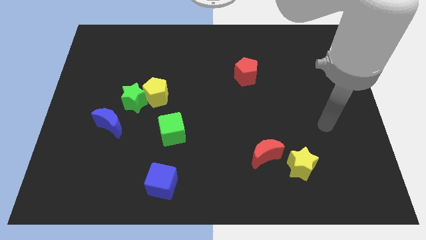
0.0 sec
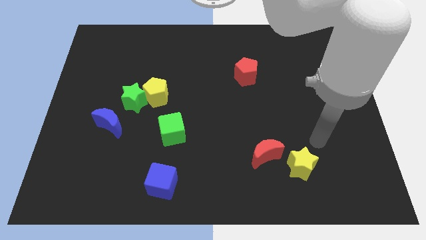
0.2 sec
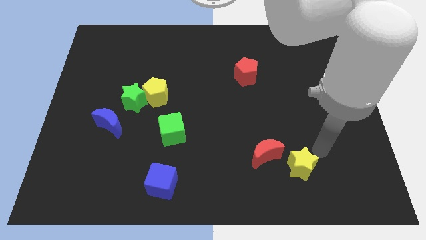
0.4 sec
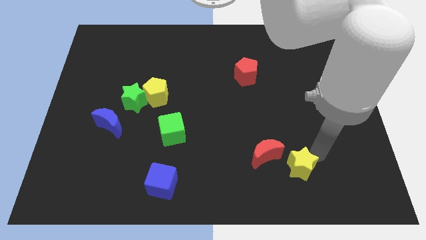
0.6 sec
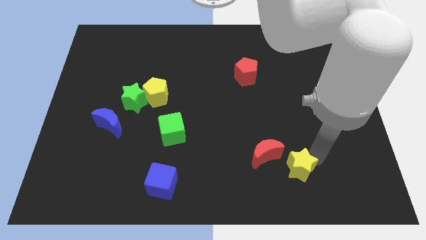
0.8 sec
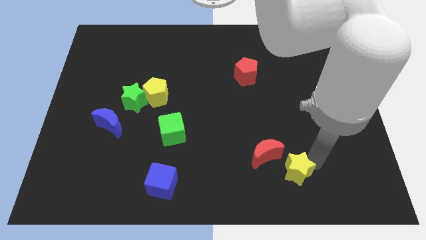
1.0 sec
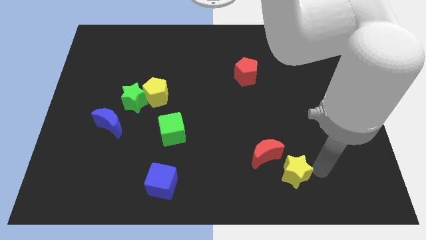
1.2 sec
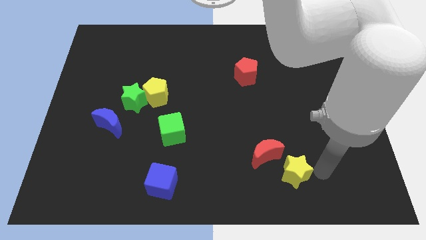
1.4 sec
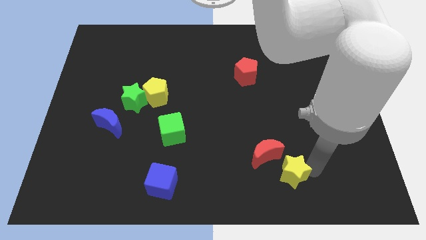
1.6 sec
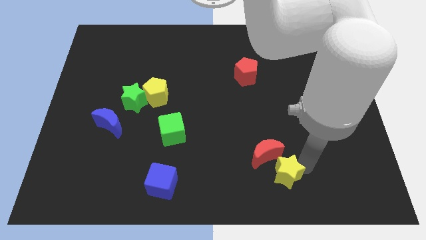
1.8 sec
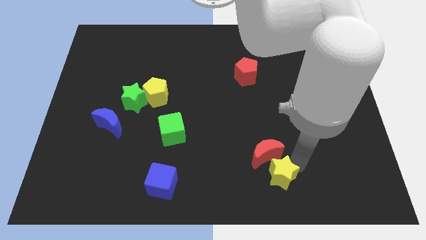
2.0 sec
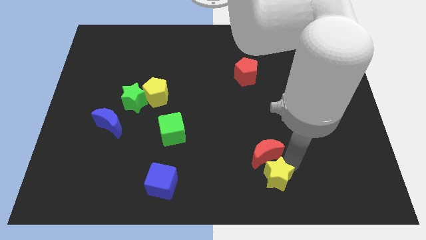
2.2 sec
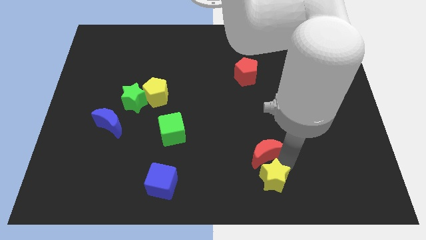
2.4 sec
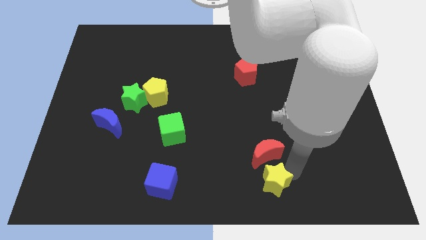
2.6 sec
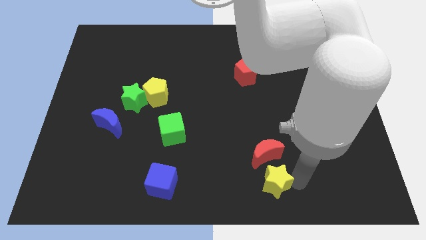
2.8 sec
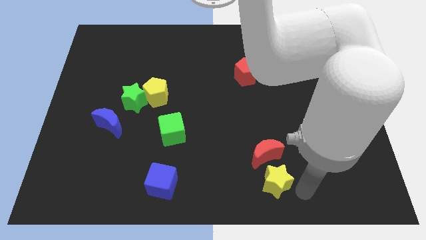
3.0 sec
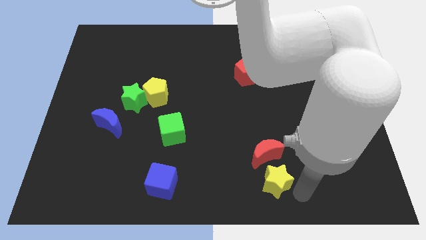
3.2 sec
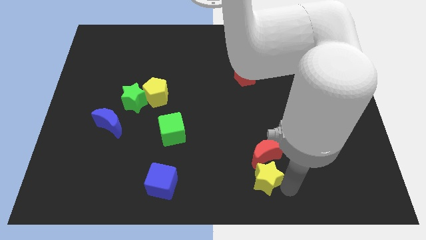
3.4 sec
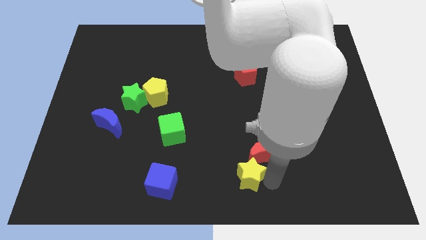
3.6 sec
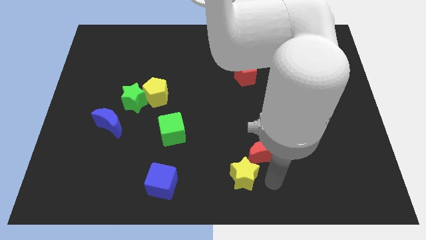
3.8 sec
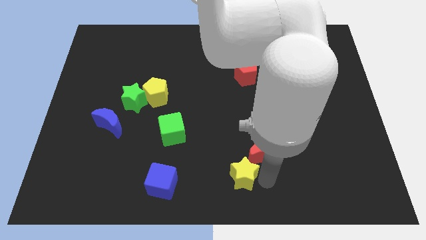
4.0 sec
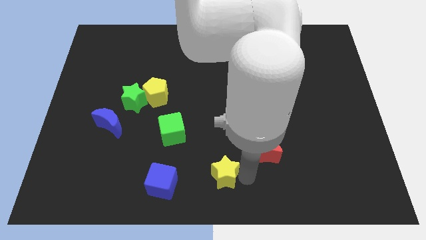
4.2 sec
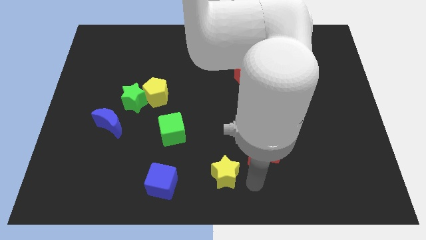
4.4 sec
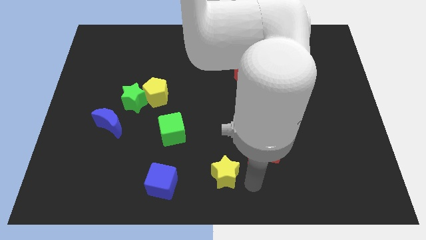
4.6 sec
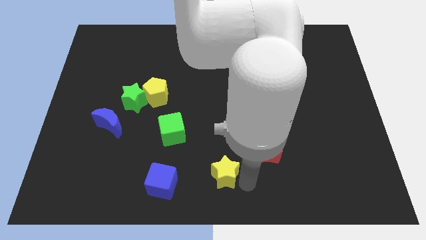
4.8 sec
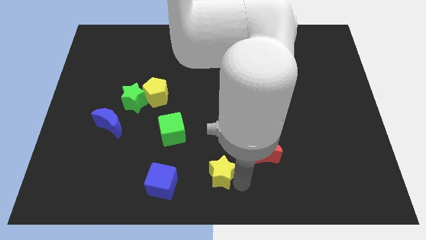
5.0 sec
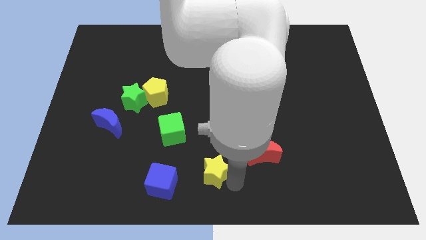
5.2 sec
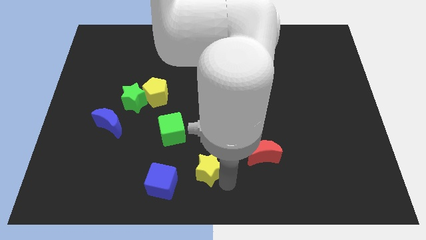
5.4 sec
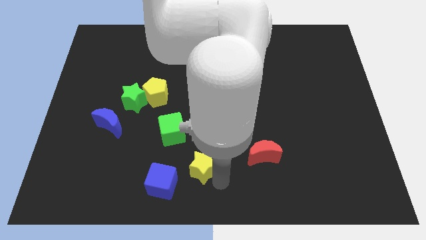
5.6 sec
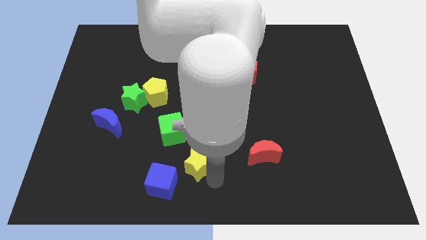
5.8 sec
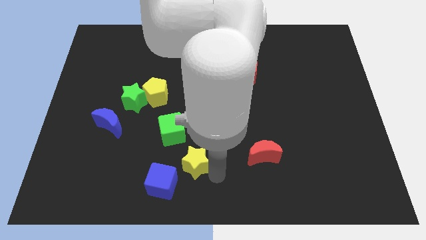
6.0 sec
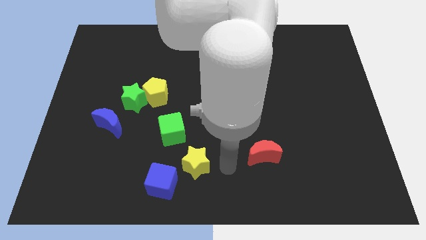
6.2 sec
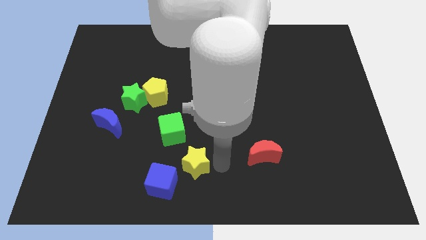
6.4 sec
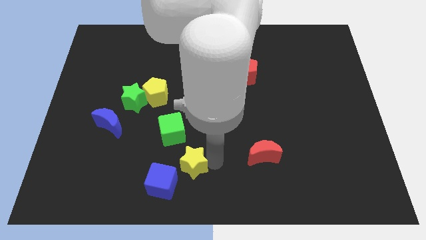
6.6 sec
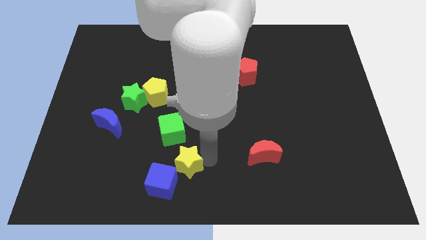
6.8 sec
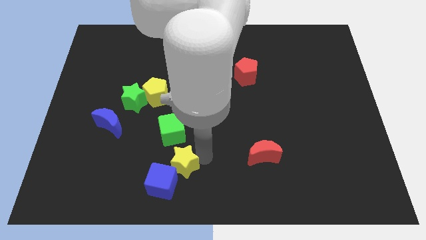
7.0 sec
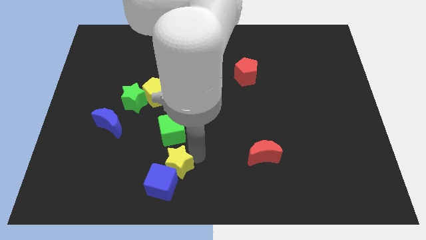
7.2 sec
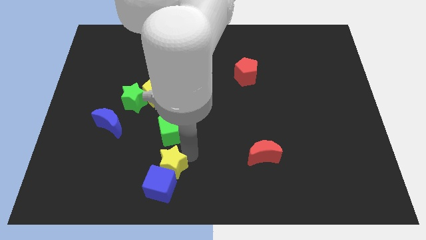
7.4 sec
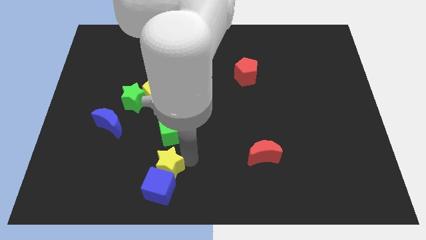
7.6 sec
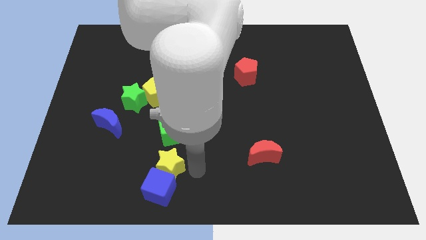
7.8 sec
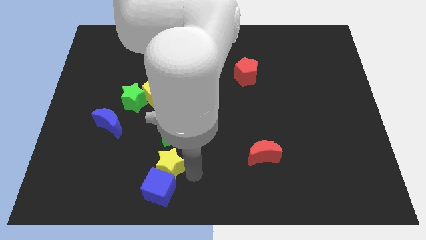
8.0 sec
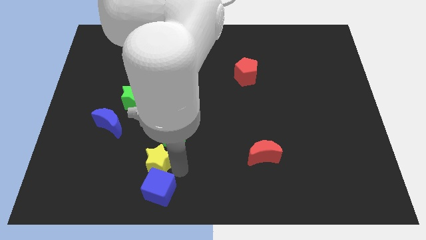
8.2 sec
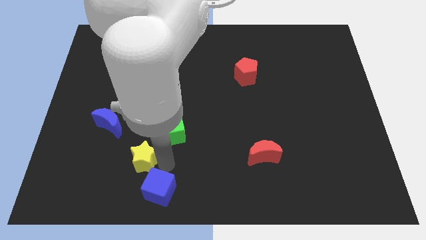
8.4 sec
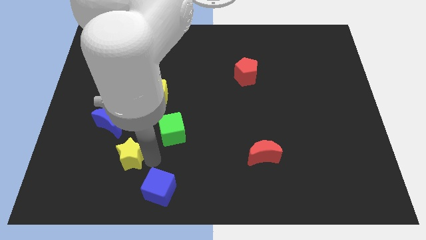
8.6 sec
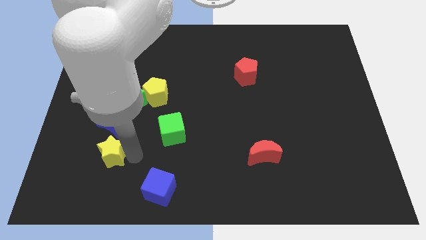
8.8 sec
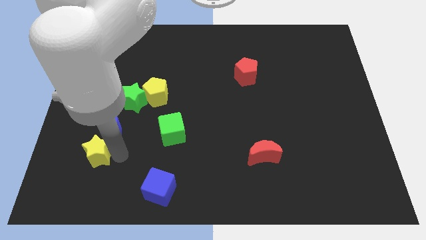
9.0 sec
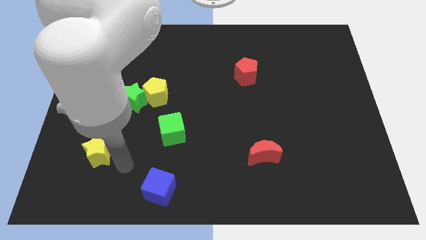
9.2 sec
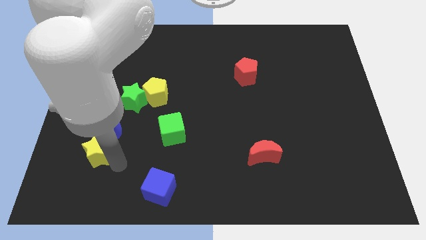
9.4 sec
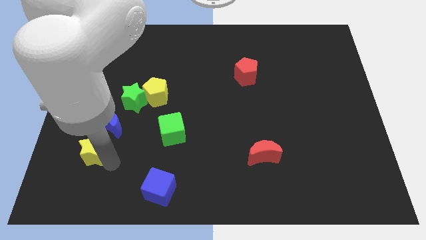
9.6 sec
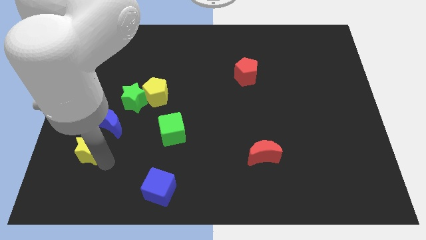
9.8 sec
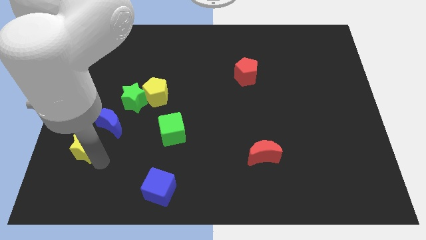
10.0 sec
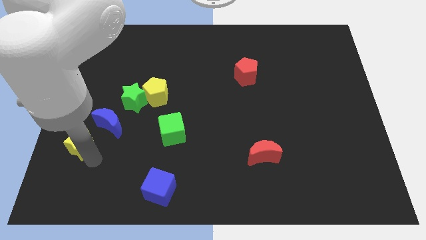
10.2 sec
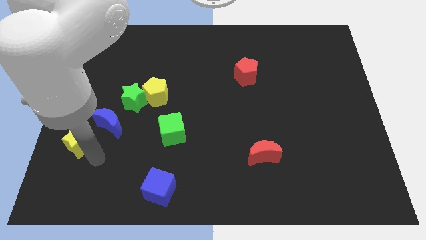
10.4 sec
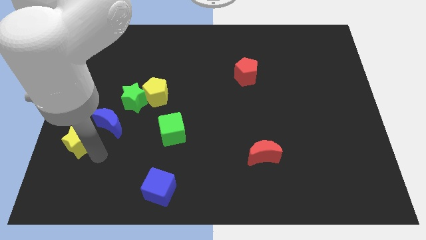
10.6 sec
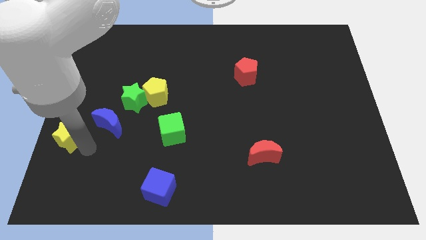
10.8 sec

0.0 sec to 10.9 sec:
put the yellow star to the left side of the board

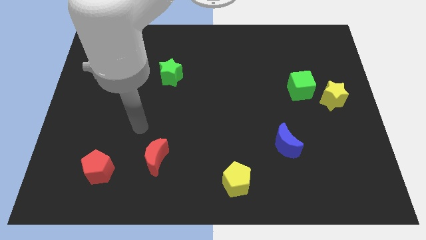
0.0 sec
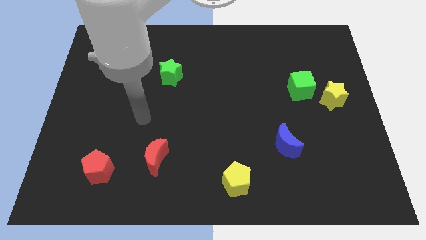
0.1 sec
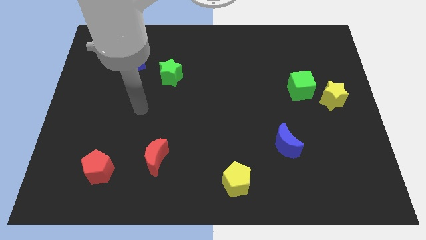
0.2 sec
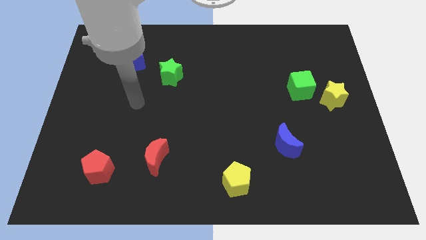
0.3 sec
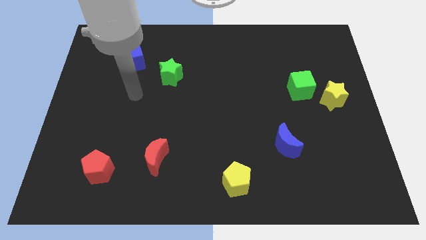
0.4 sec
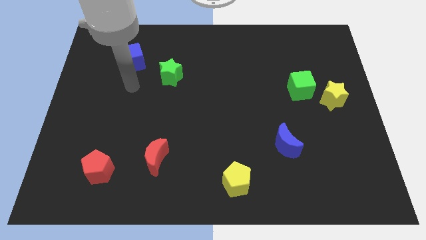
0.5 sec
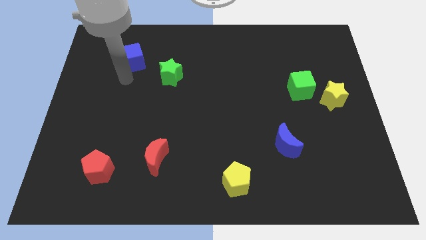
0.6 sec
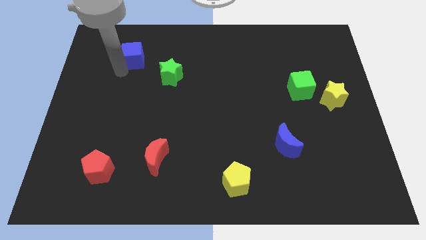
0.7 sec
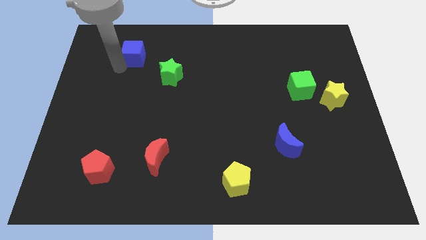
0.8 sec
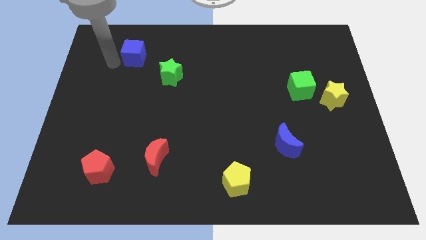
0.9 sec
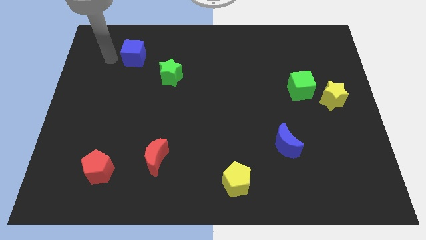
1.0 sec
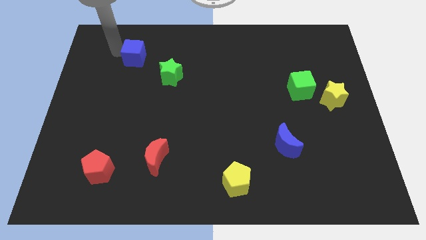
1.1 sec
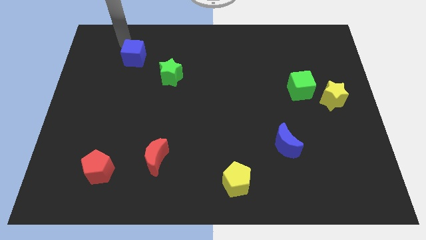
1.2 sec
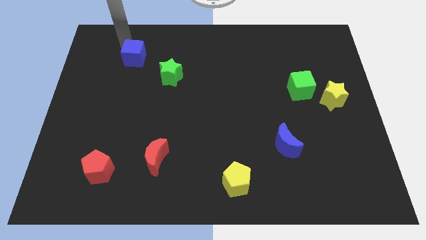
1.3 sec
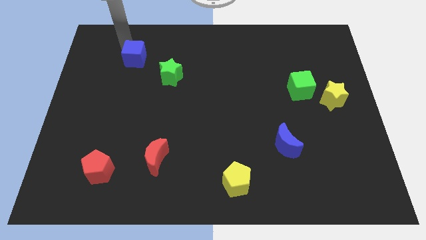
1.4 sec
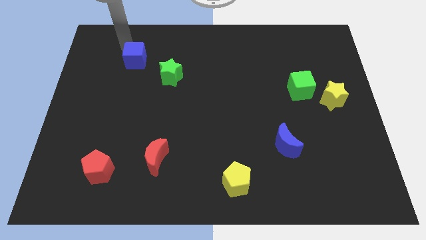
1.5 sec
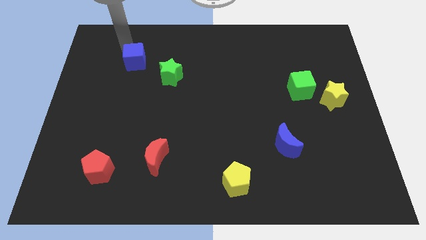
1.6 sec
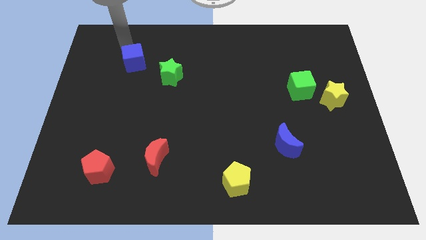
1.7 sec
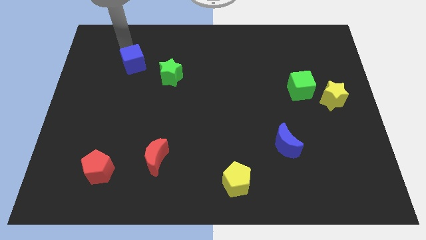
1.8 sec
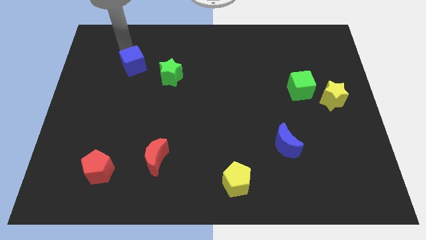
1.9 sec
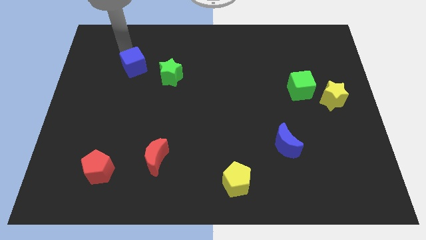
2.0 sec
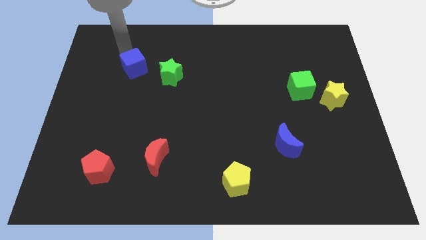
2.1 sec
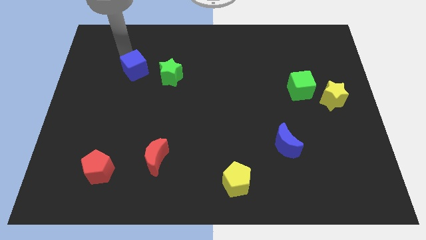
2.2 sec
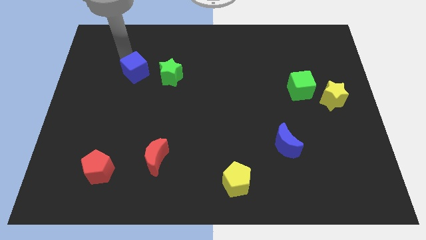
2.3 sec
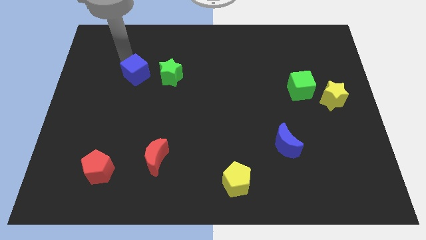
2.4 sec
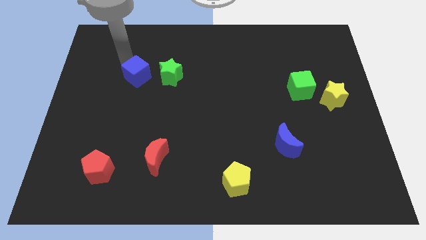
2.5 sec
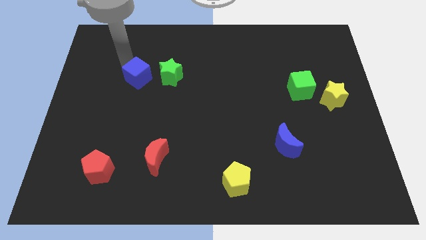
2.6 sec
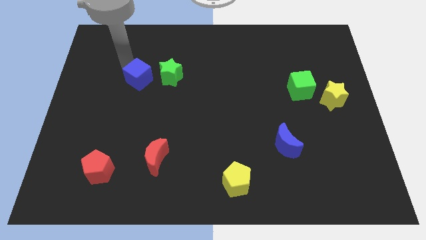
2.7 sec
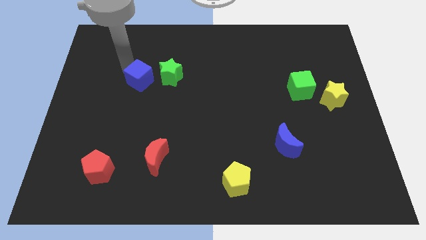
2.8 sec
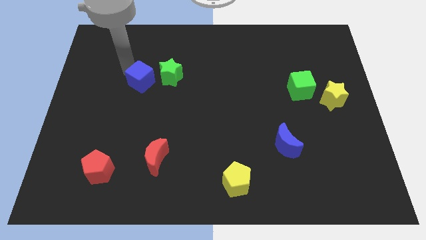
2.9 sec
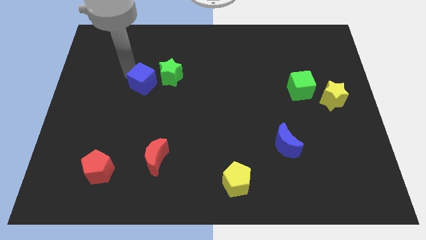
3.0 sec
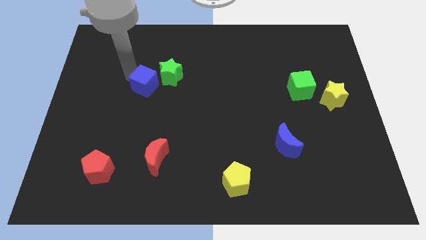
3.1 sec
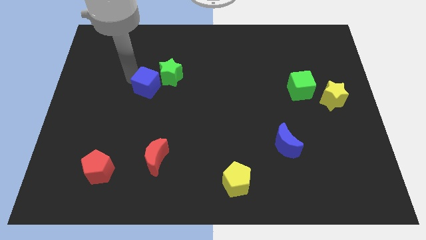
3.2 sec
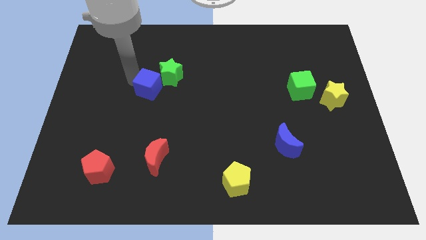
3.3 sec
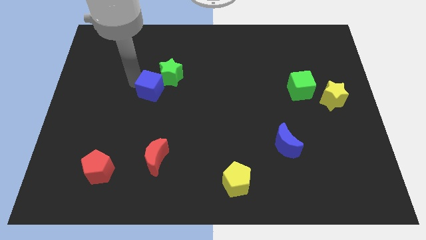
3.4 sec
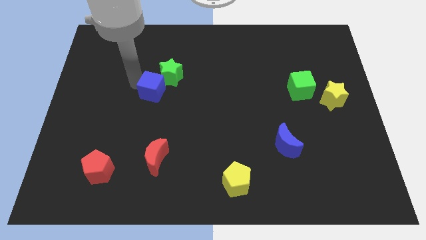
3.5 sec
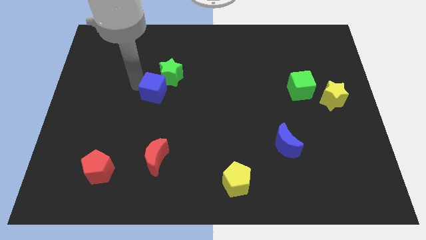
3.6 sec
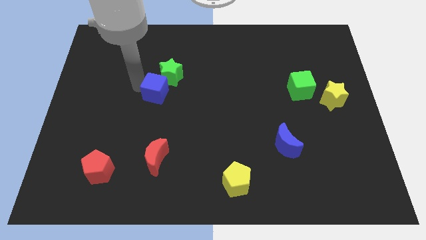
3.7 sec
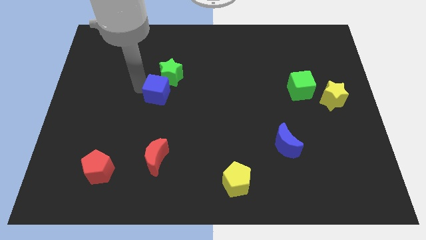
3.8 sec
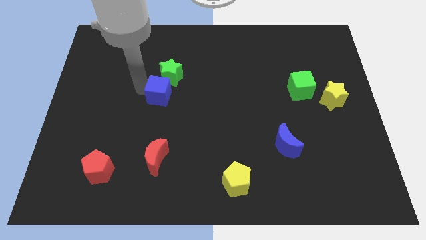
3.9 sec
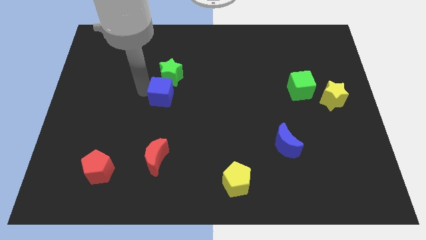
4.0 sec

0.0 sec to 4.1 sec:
put the blue cube to the center
